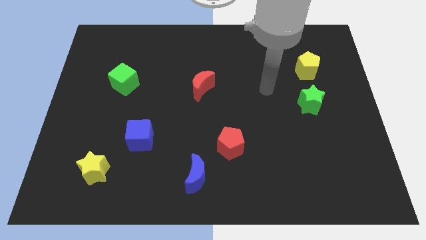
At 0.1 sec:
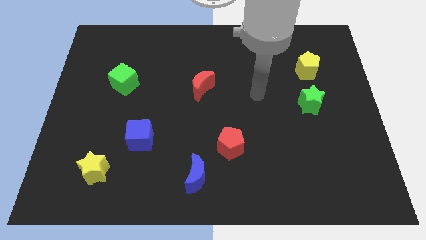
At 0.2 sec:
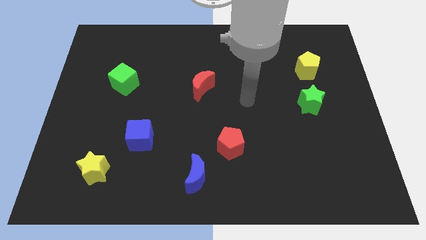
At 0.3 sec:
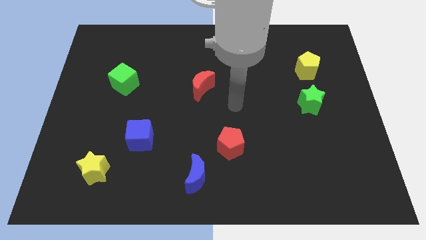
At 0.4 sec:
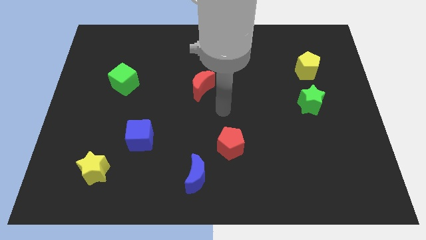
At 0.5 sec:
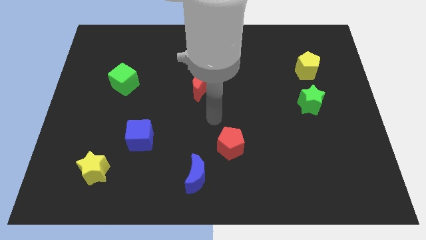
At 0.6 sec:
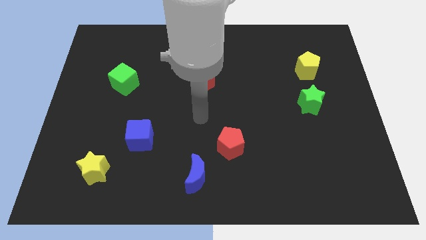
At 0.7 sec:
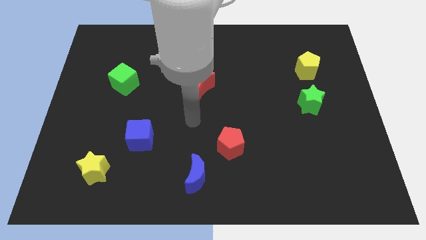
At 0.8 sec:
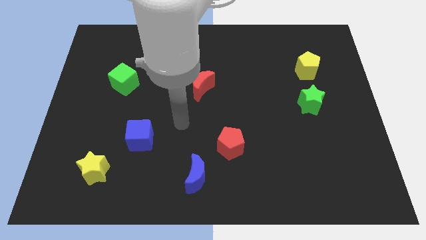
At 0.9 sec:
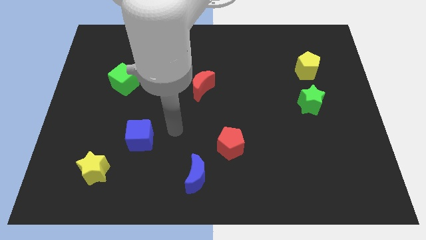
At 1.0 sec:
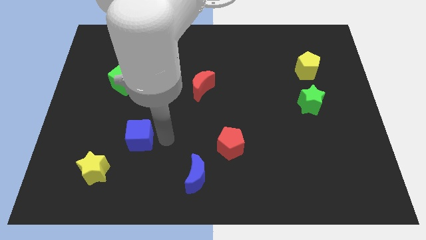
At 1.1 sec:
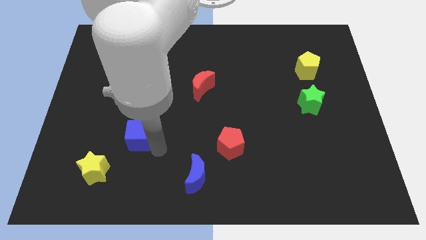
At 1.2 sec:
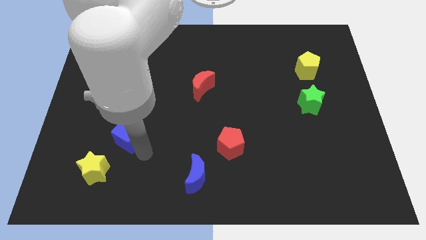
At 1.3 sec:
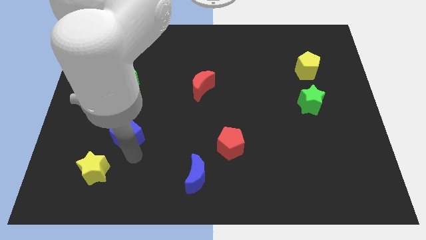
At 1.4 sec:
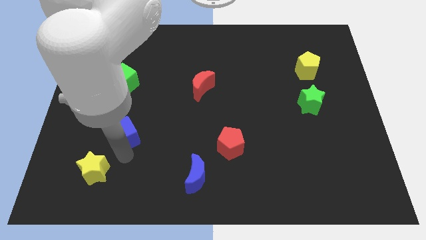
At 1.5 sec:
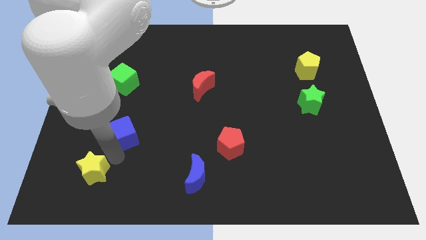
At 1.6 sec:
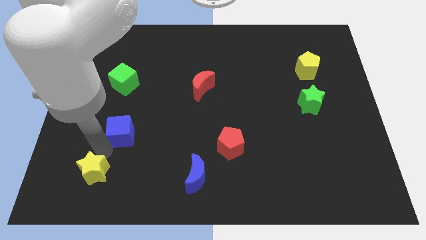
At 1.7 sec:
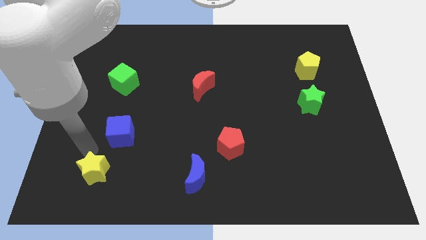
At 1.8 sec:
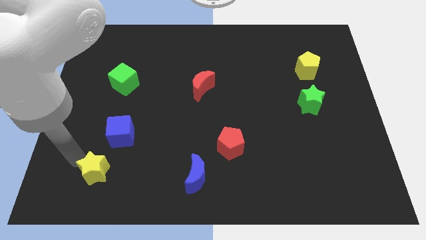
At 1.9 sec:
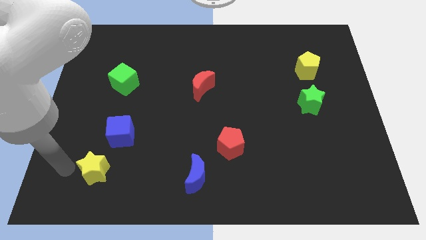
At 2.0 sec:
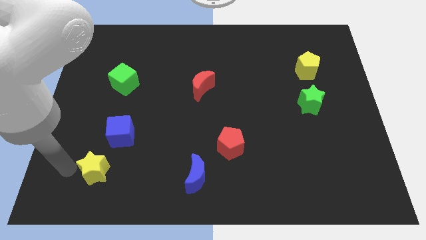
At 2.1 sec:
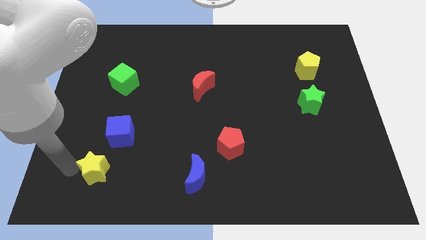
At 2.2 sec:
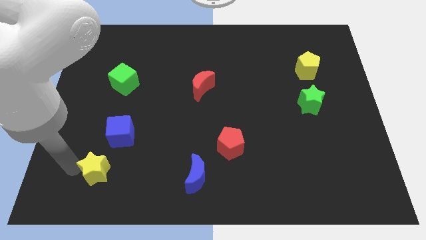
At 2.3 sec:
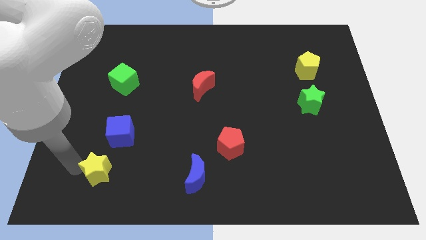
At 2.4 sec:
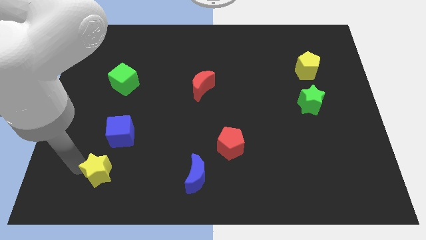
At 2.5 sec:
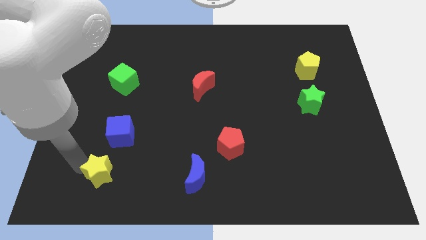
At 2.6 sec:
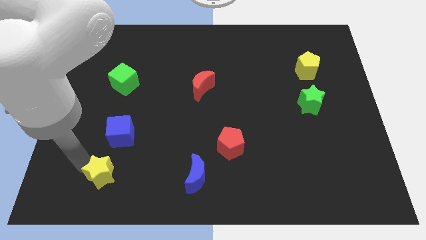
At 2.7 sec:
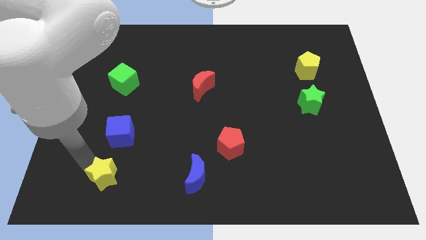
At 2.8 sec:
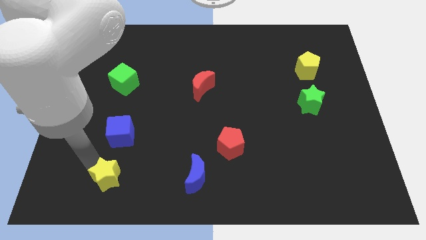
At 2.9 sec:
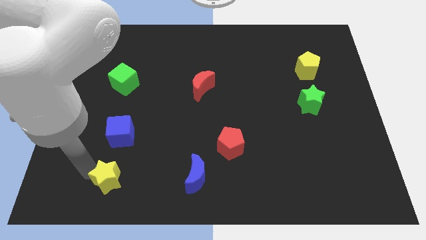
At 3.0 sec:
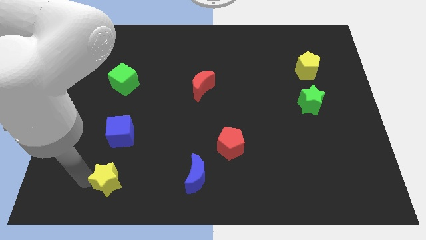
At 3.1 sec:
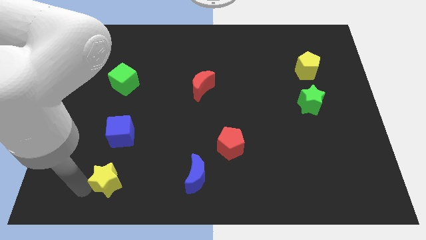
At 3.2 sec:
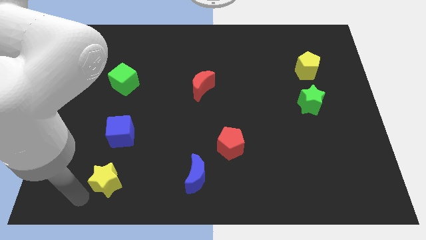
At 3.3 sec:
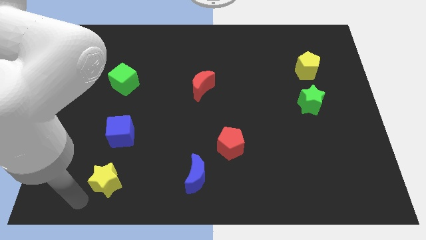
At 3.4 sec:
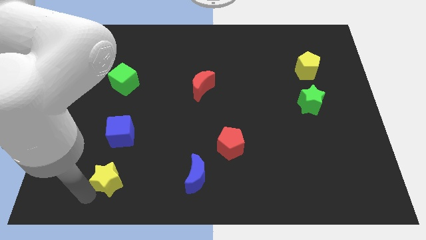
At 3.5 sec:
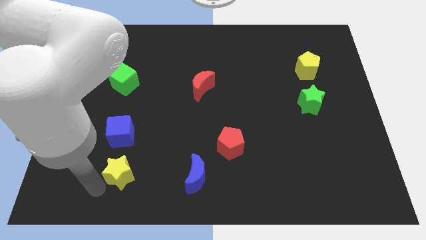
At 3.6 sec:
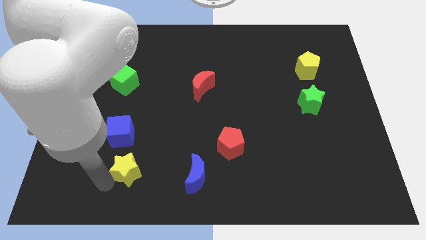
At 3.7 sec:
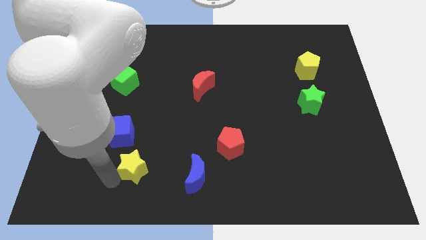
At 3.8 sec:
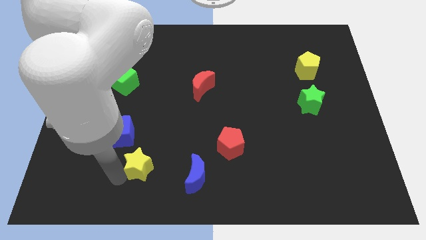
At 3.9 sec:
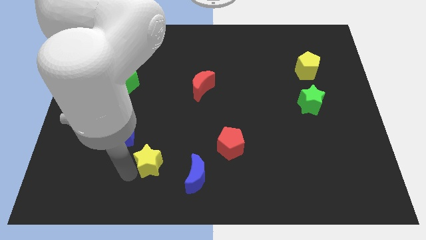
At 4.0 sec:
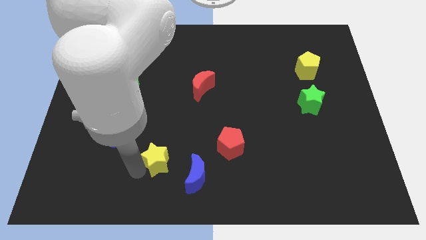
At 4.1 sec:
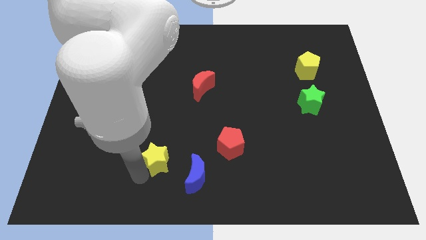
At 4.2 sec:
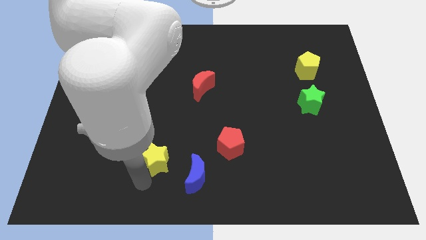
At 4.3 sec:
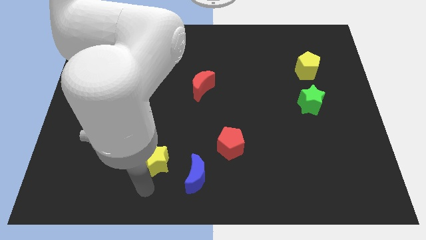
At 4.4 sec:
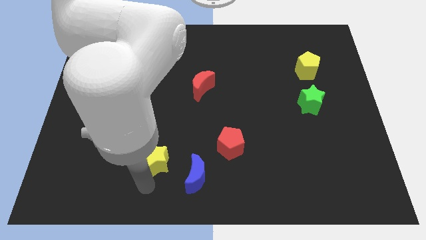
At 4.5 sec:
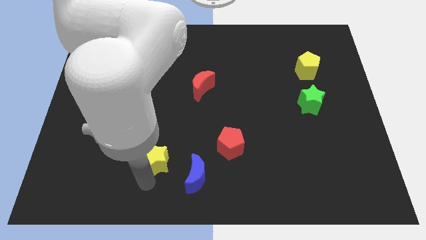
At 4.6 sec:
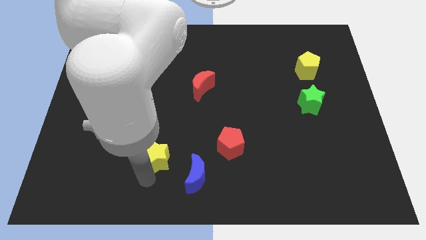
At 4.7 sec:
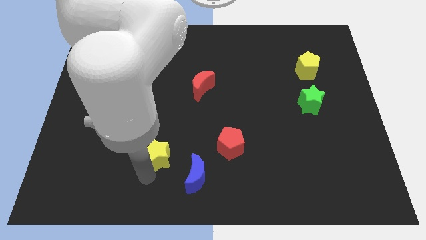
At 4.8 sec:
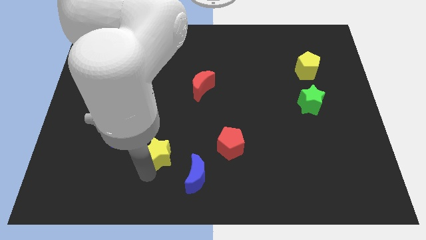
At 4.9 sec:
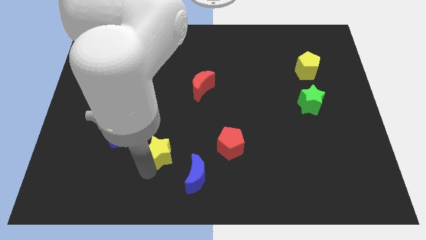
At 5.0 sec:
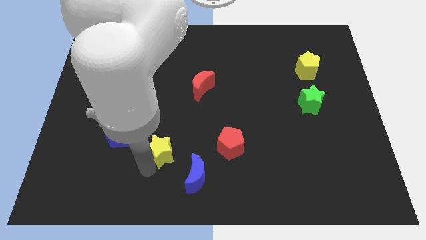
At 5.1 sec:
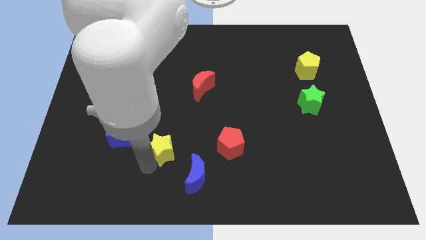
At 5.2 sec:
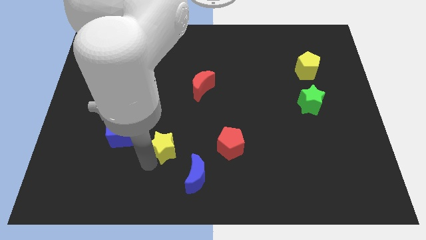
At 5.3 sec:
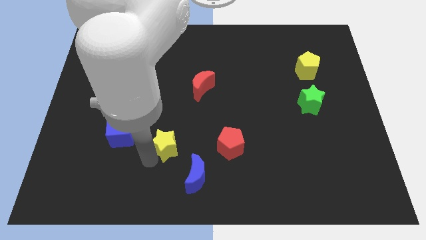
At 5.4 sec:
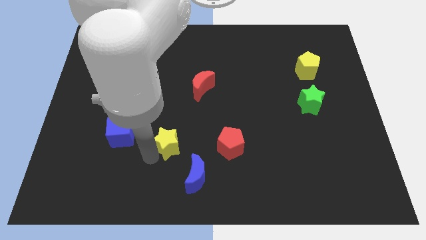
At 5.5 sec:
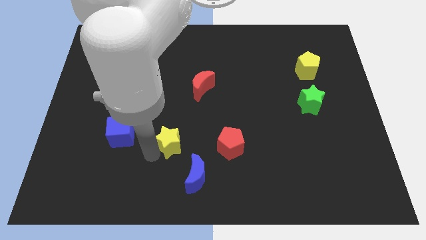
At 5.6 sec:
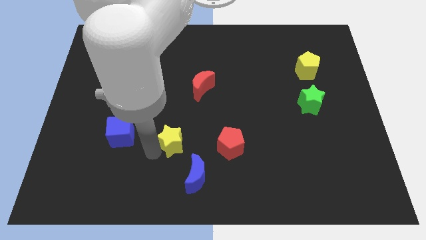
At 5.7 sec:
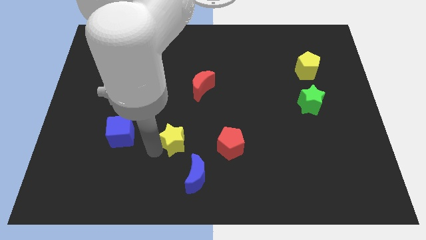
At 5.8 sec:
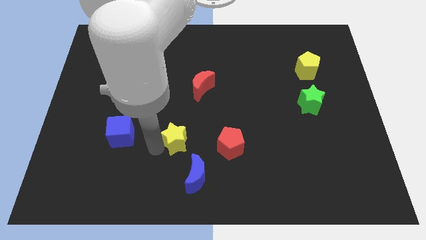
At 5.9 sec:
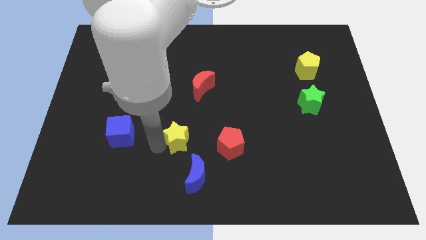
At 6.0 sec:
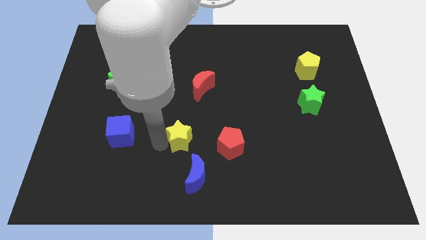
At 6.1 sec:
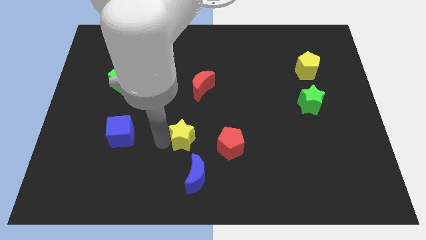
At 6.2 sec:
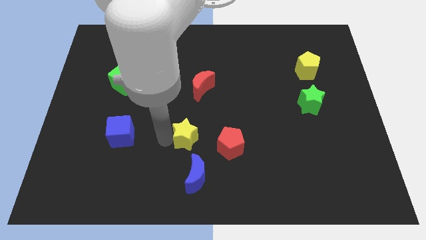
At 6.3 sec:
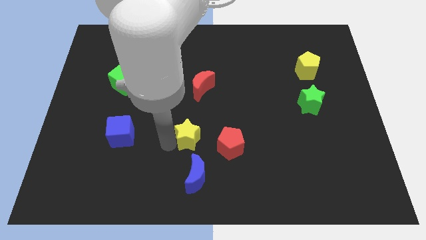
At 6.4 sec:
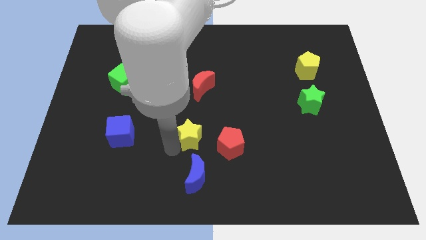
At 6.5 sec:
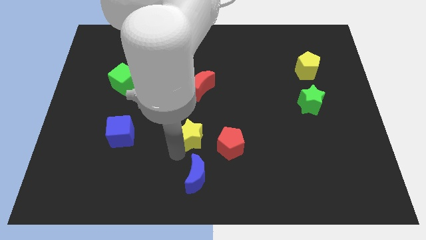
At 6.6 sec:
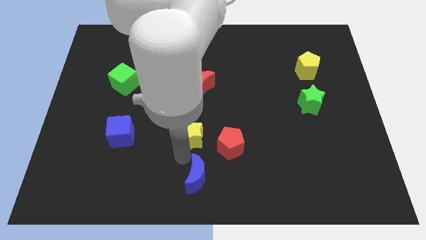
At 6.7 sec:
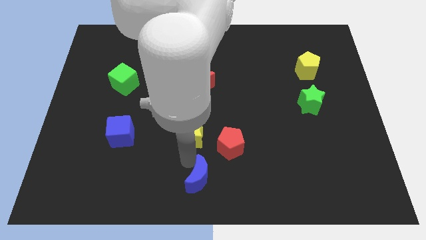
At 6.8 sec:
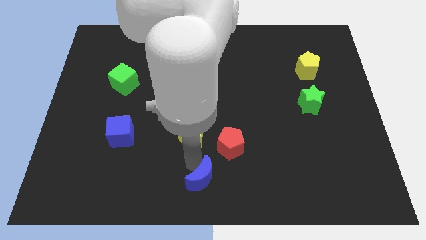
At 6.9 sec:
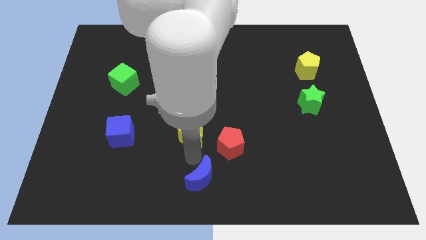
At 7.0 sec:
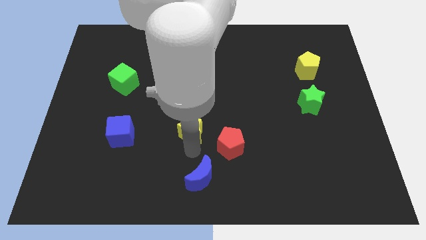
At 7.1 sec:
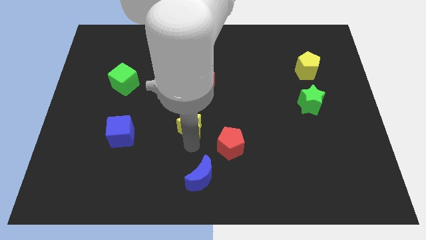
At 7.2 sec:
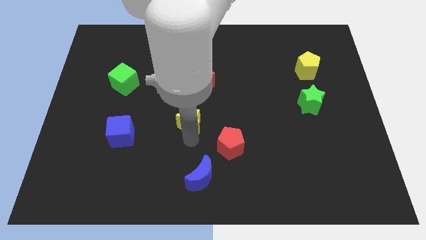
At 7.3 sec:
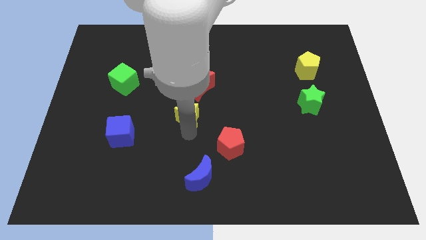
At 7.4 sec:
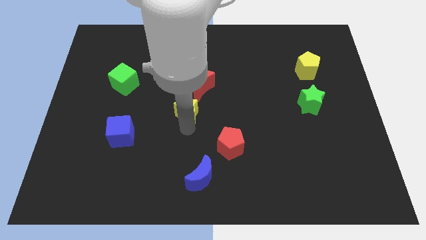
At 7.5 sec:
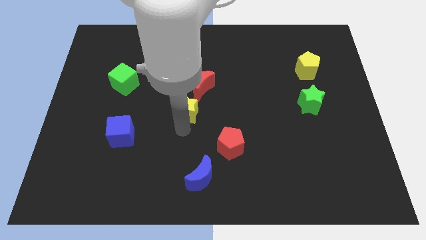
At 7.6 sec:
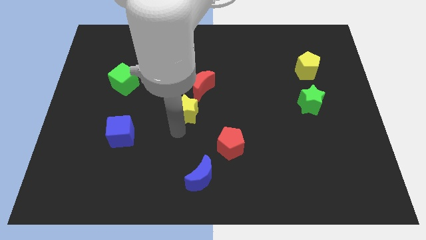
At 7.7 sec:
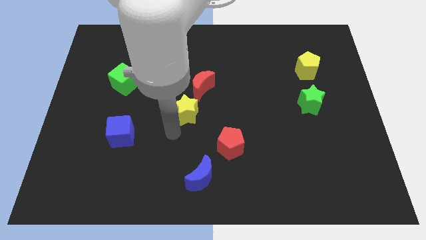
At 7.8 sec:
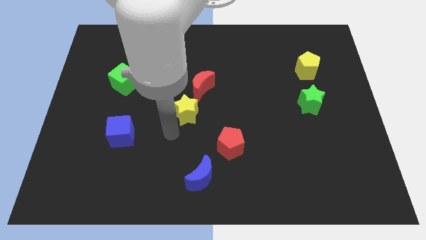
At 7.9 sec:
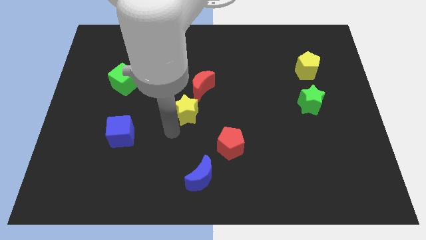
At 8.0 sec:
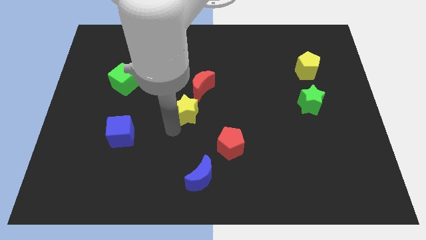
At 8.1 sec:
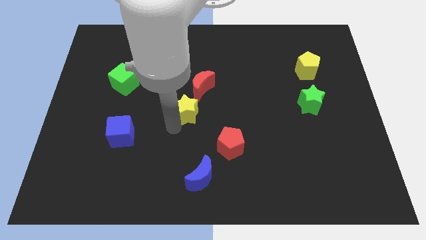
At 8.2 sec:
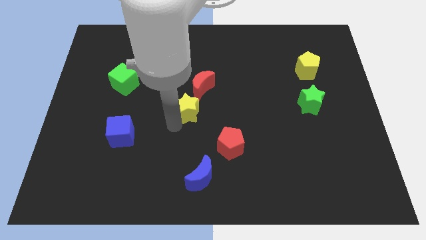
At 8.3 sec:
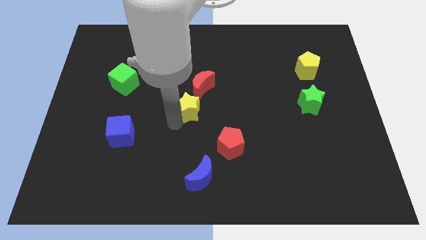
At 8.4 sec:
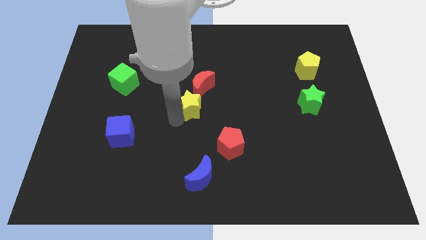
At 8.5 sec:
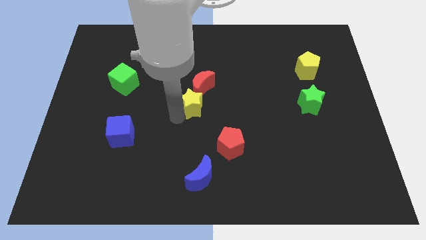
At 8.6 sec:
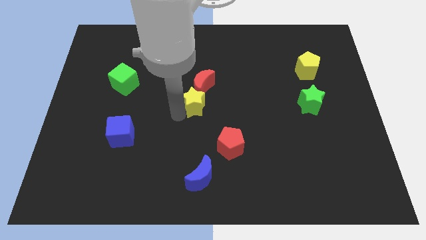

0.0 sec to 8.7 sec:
move the yellow star close to the red moon
